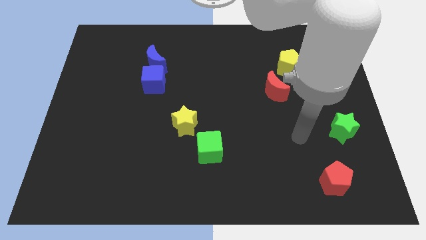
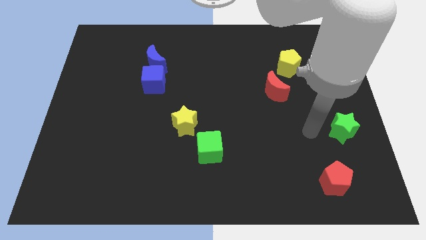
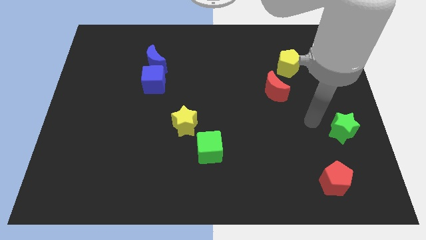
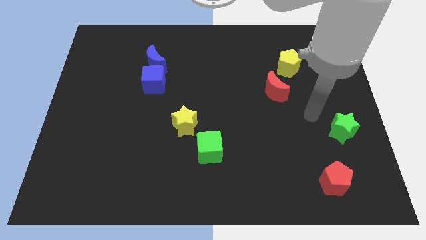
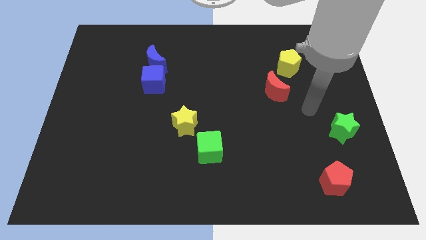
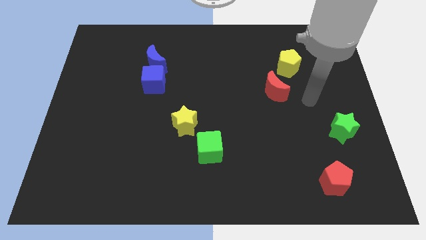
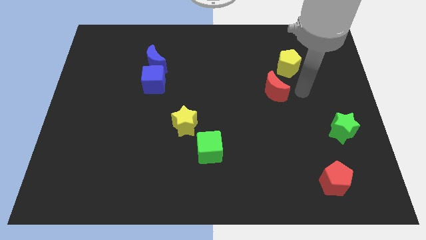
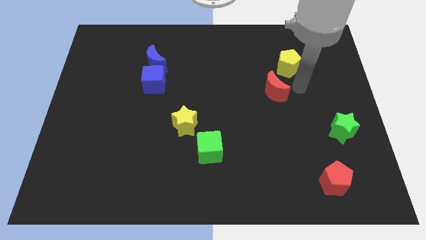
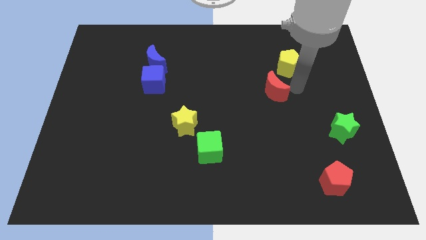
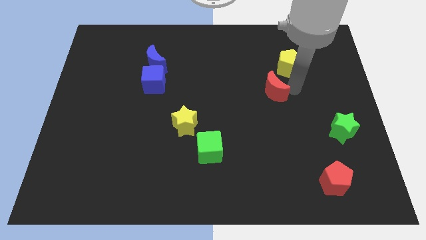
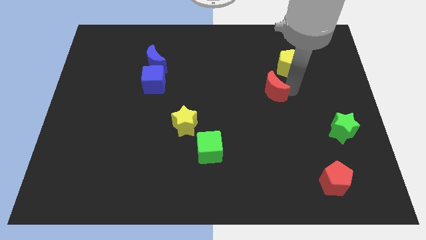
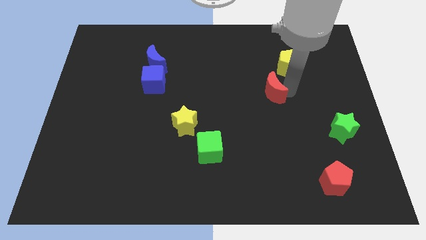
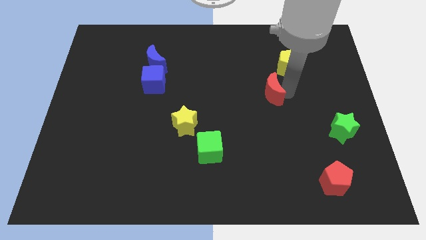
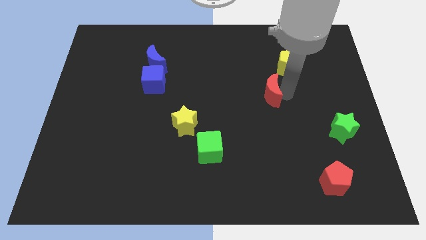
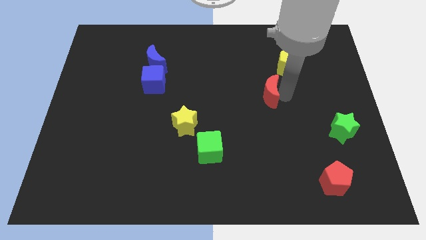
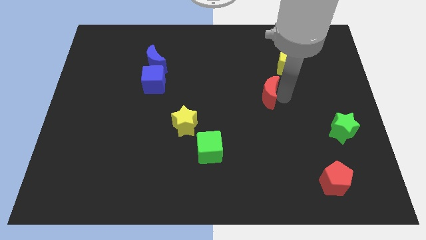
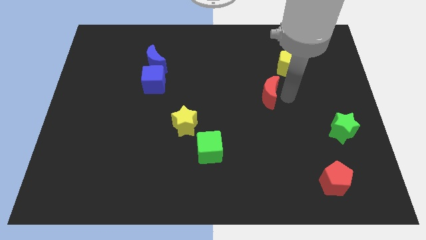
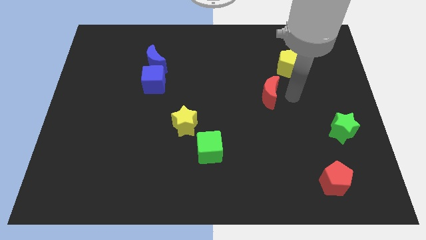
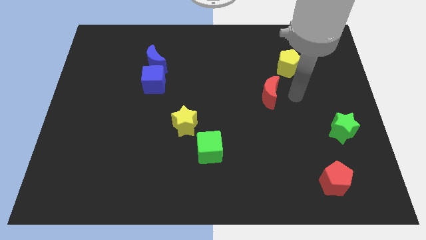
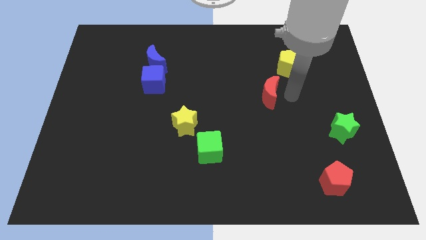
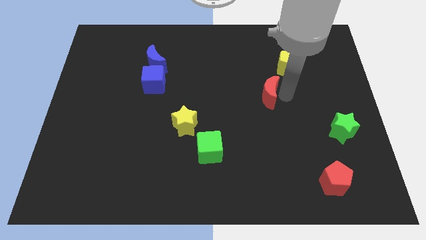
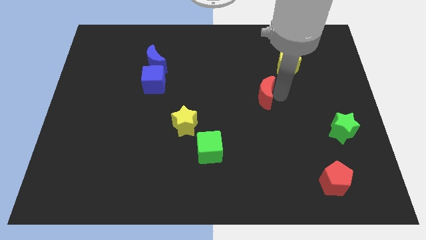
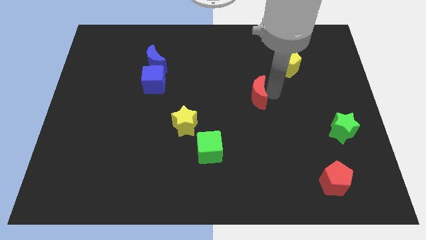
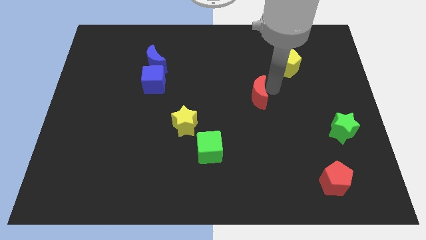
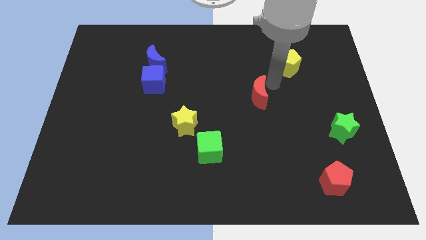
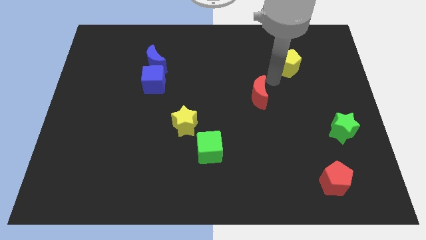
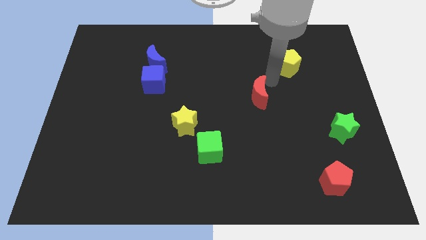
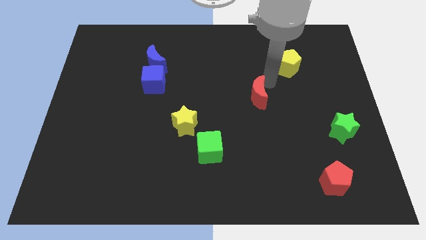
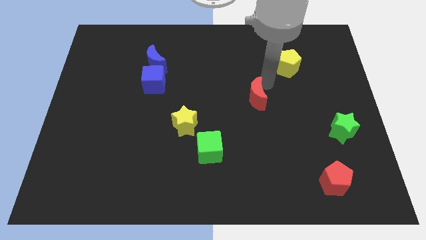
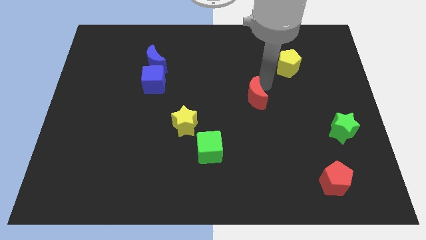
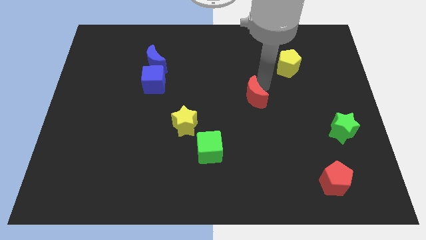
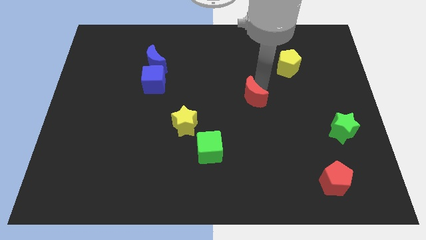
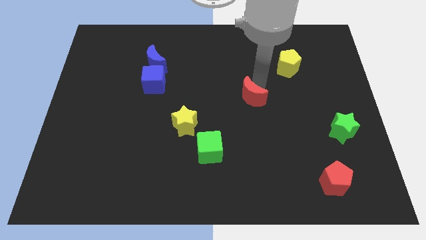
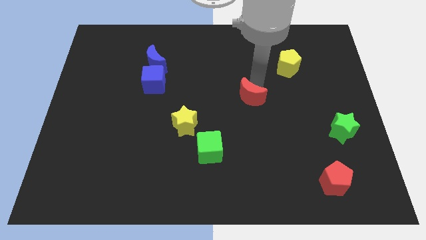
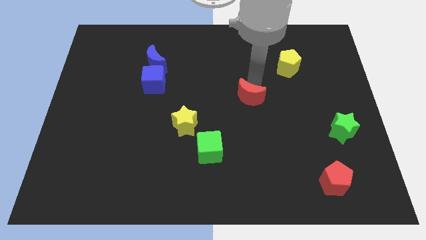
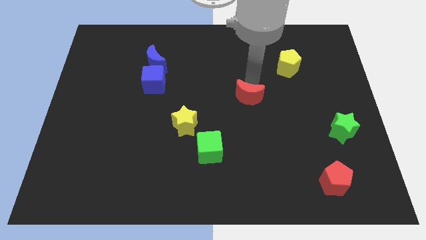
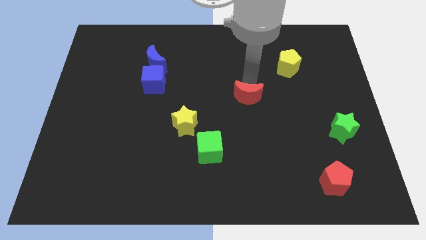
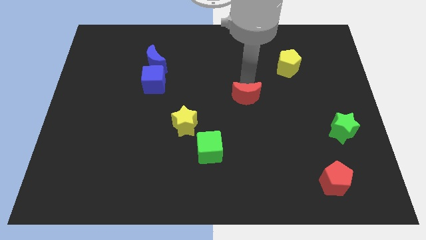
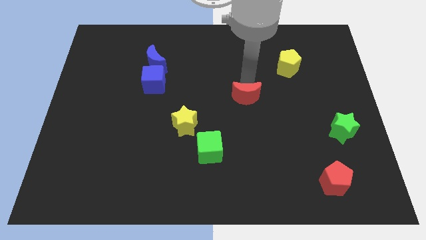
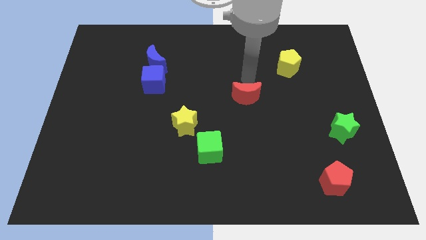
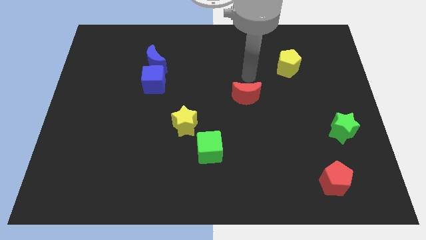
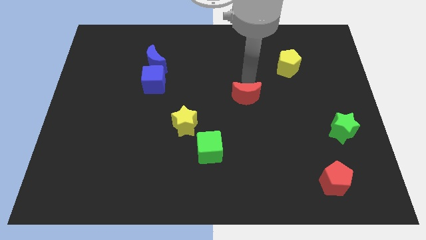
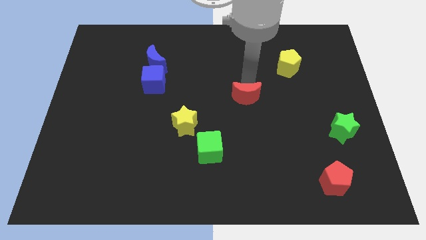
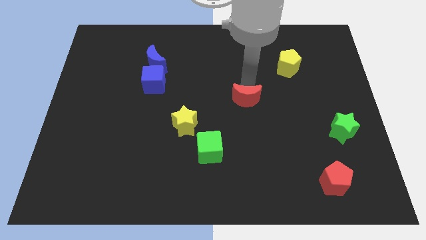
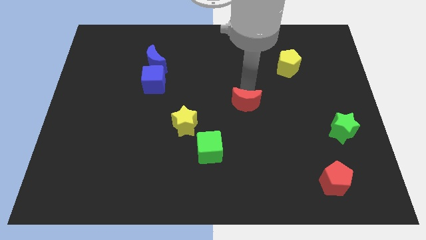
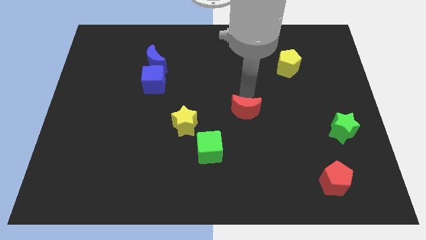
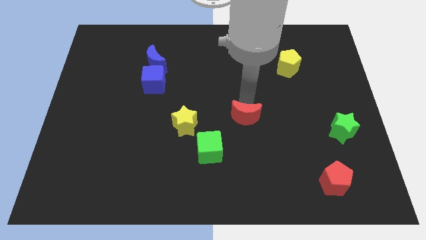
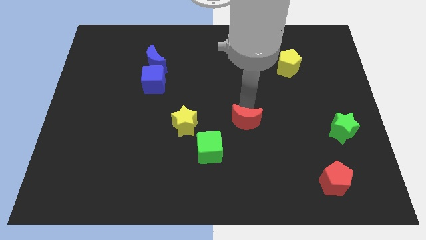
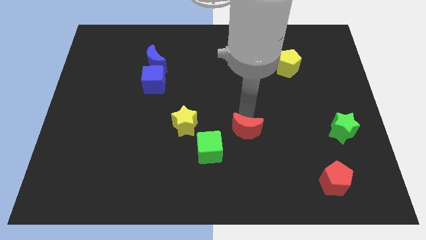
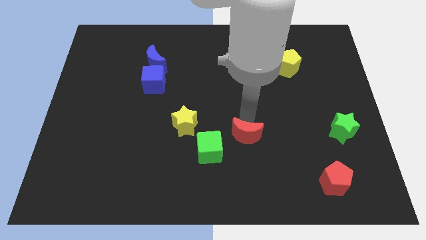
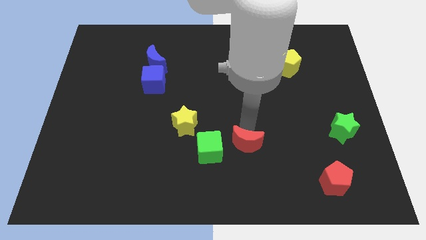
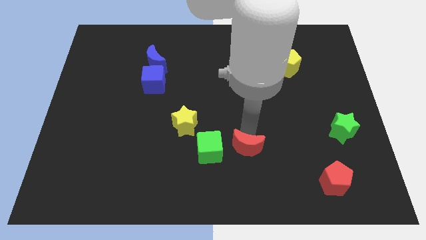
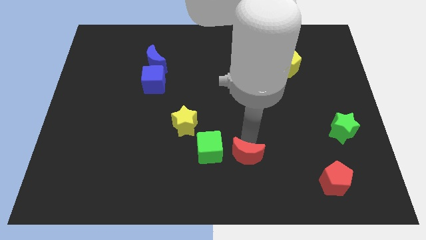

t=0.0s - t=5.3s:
move the red moon to the bottom right side of the green cube

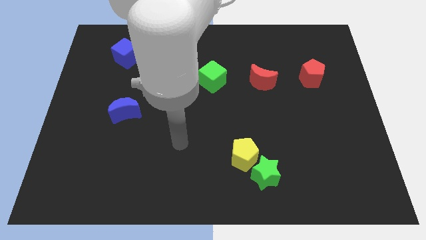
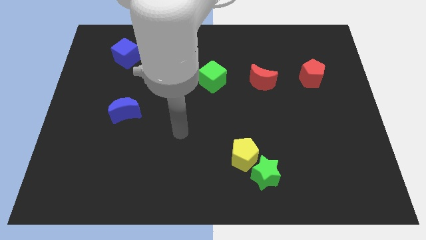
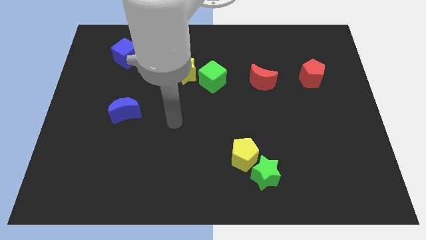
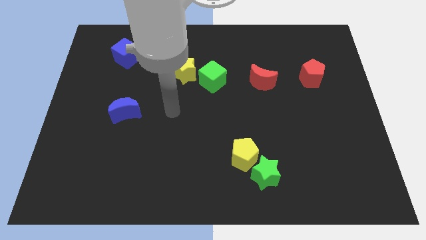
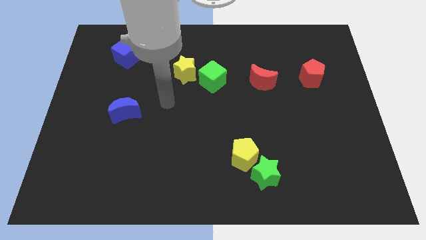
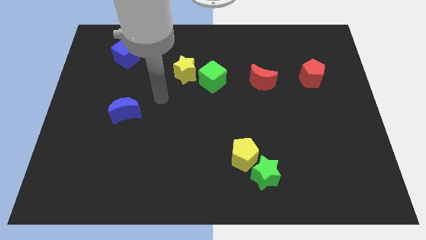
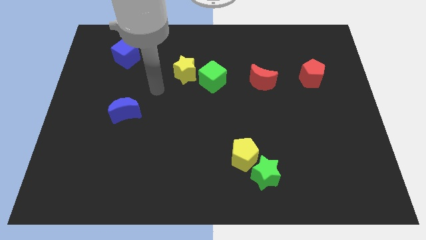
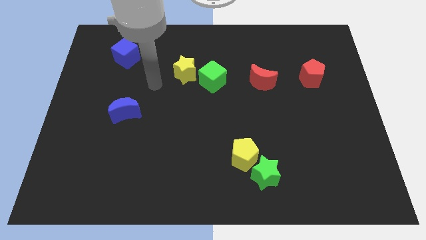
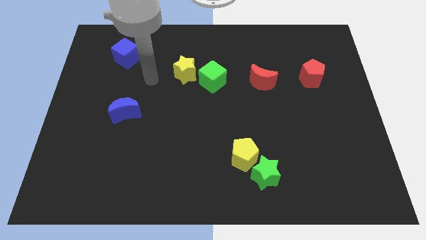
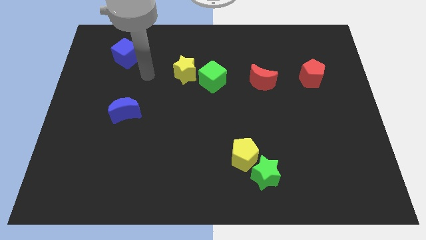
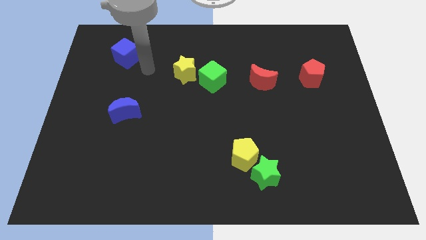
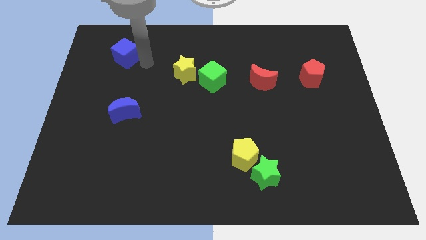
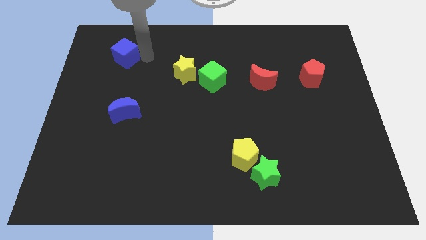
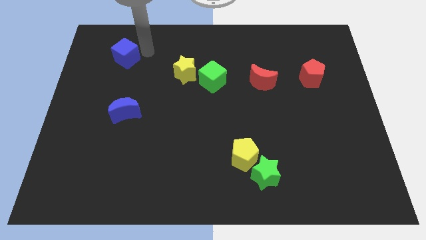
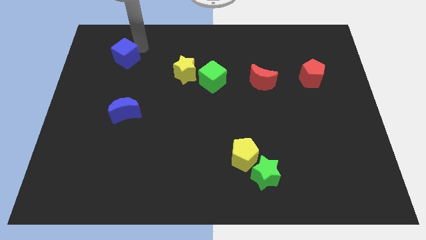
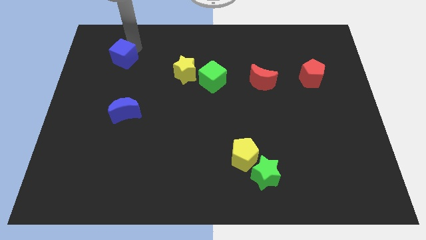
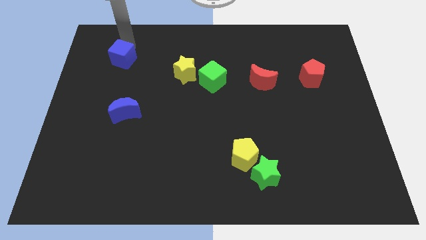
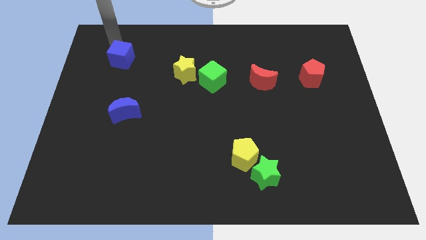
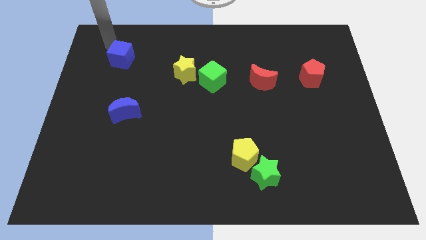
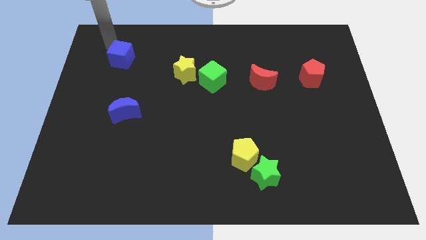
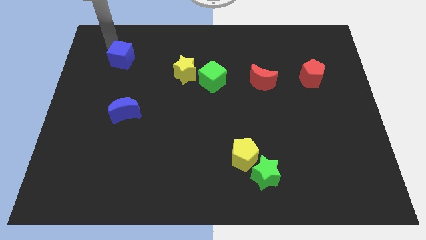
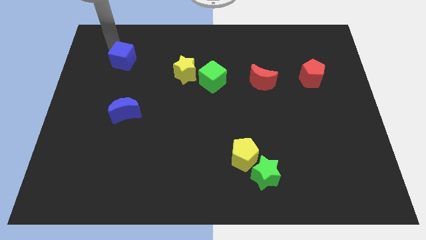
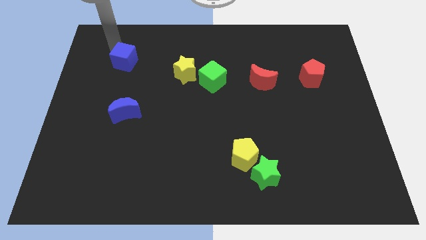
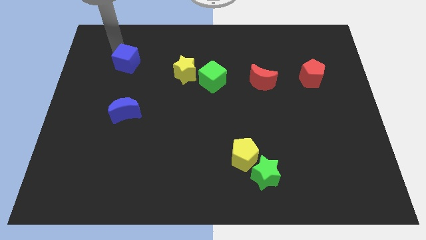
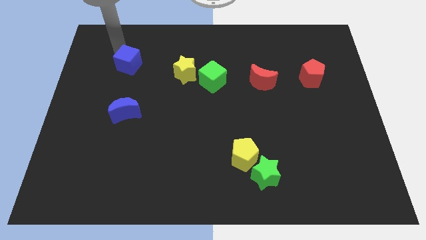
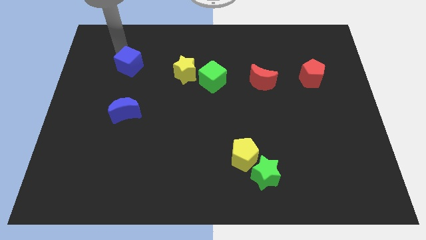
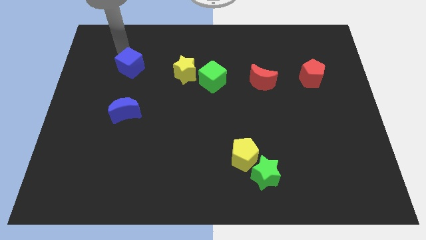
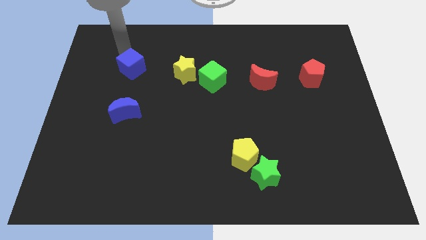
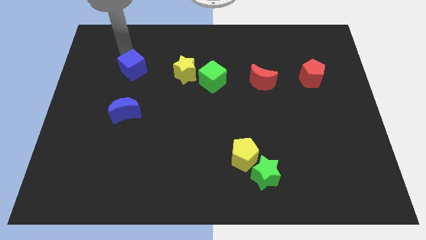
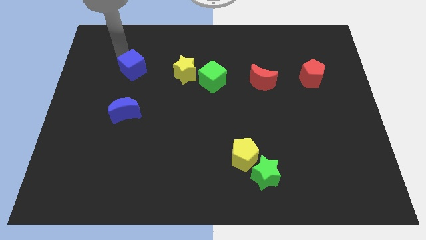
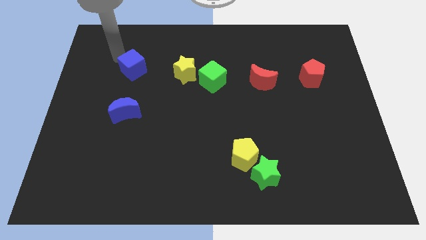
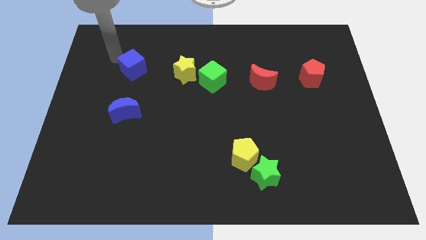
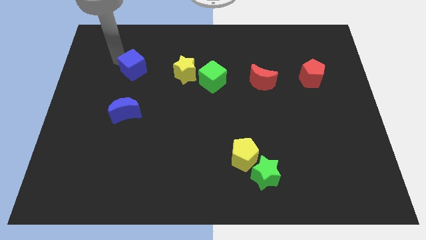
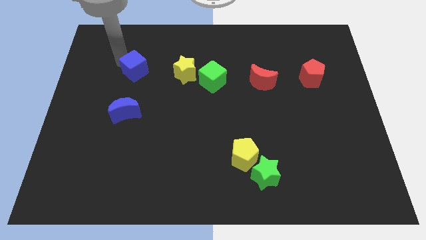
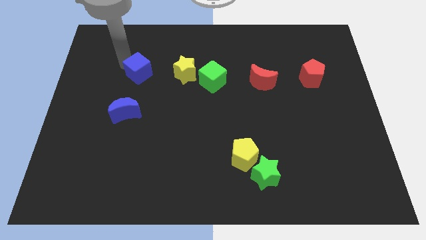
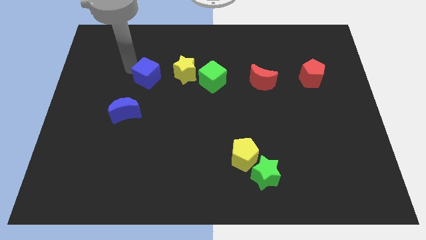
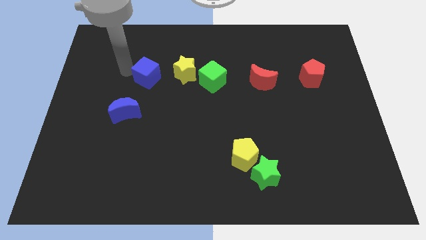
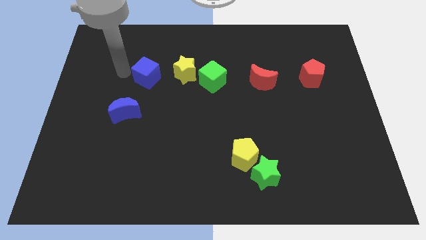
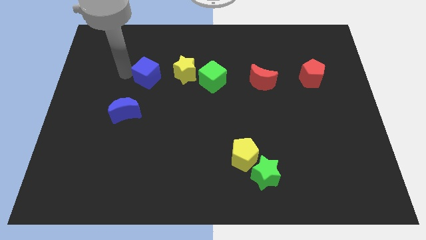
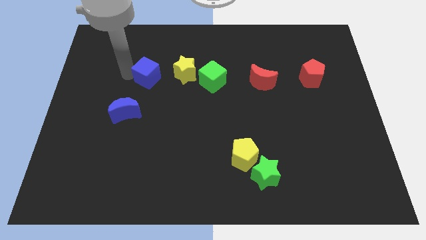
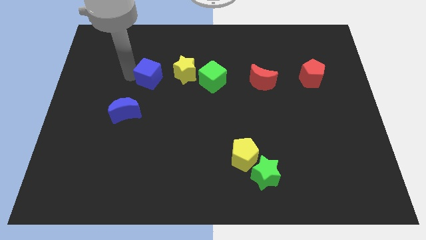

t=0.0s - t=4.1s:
slide the blue cube to the left of the green cube
